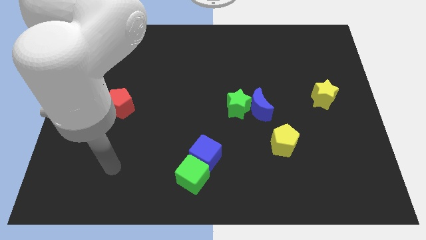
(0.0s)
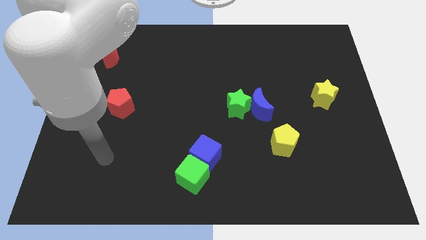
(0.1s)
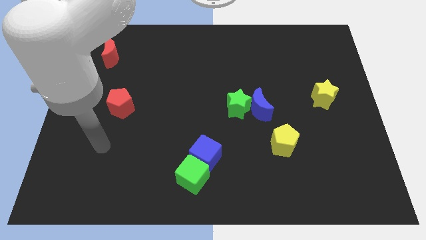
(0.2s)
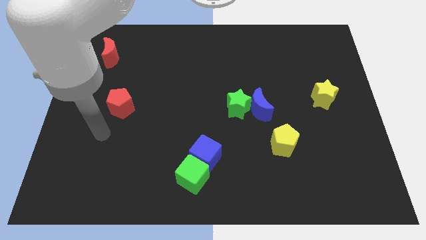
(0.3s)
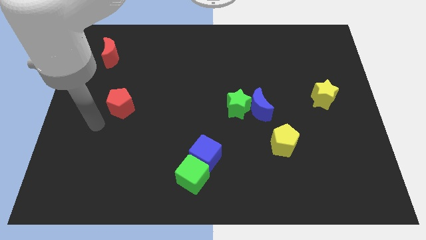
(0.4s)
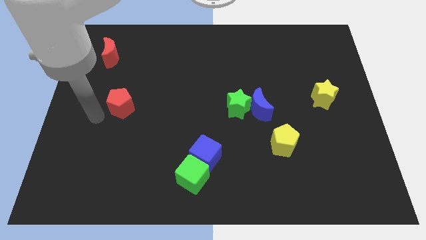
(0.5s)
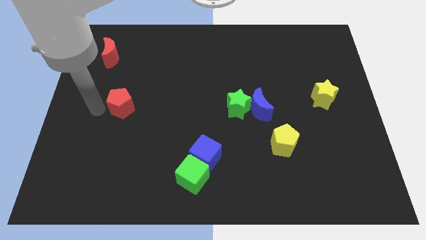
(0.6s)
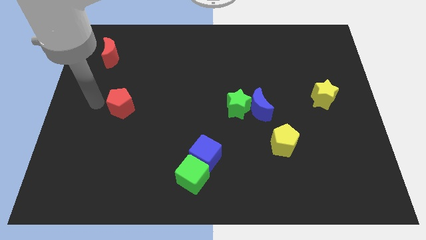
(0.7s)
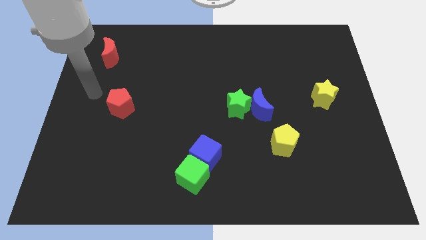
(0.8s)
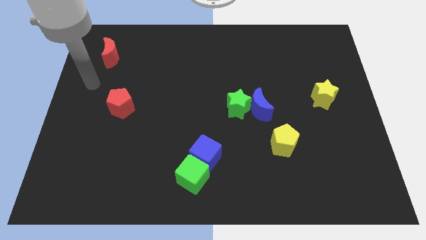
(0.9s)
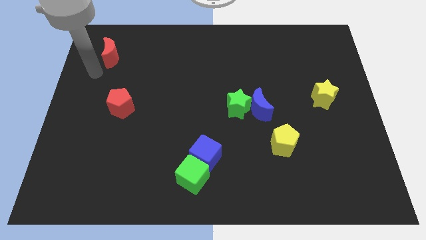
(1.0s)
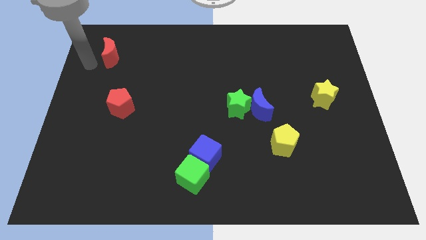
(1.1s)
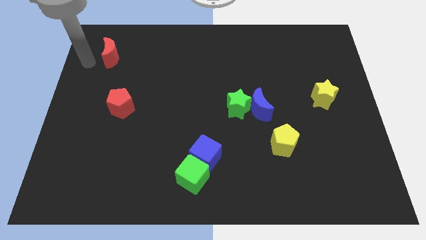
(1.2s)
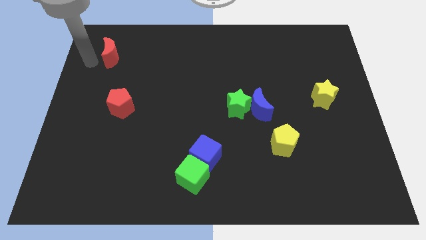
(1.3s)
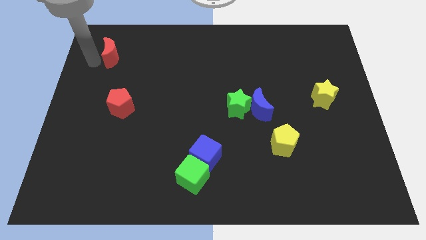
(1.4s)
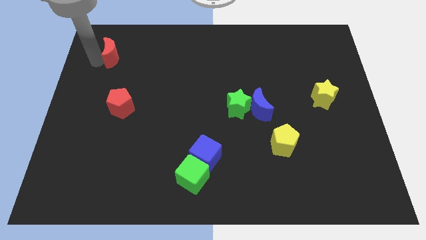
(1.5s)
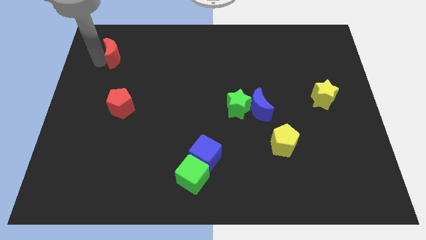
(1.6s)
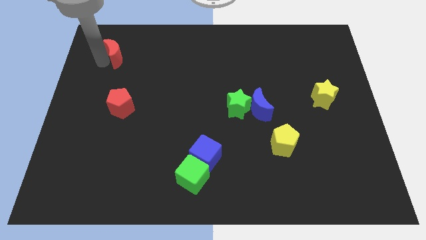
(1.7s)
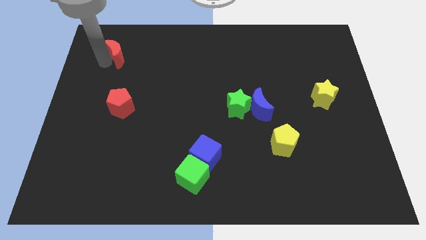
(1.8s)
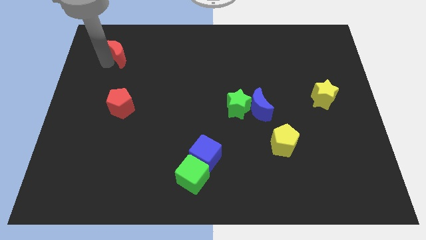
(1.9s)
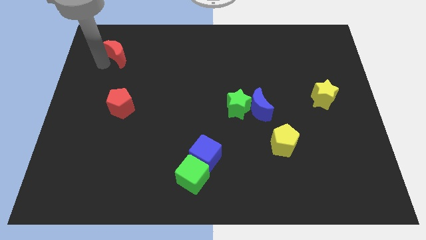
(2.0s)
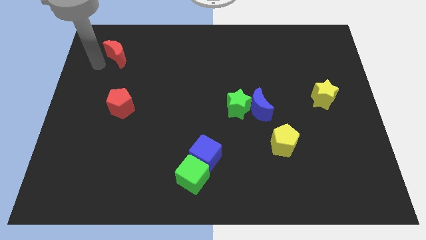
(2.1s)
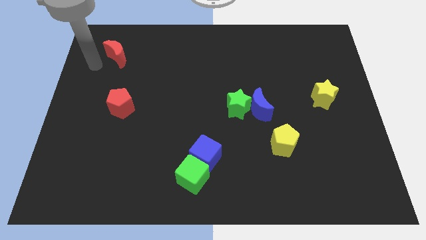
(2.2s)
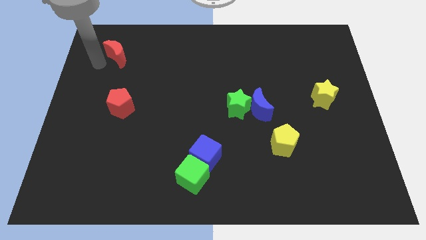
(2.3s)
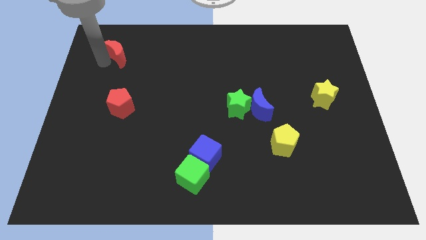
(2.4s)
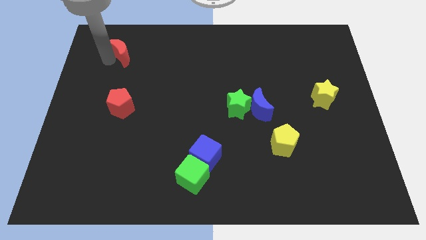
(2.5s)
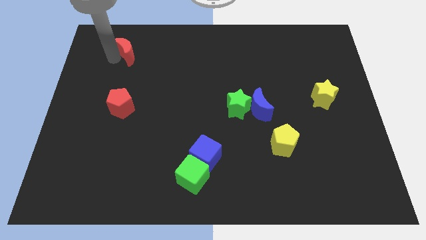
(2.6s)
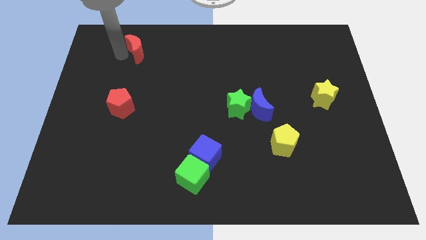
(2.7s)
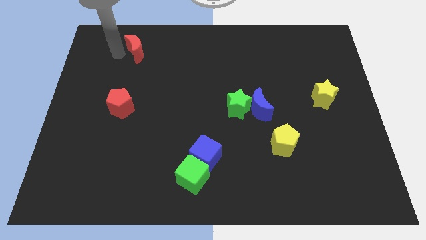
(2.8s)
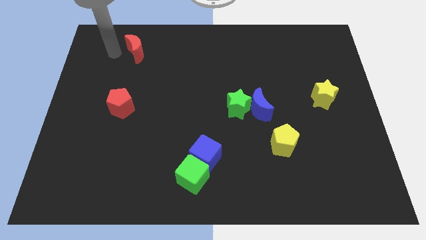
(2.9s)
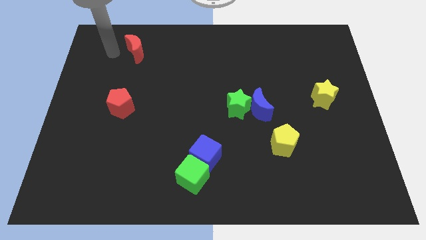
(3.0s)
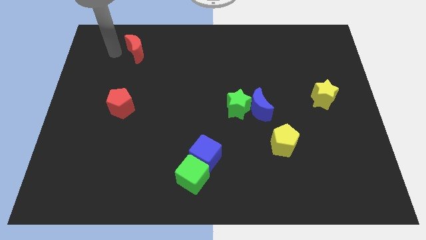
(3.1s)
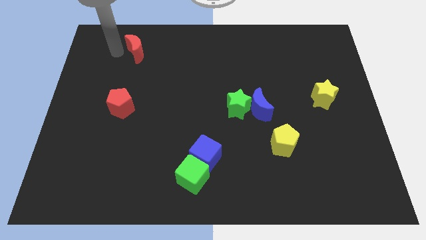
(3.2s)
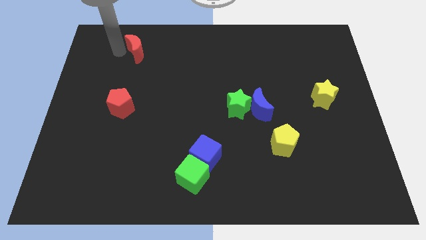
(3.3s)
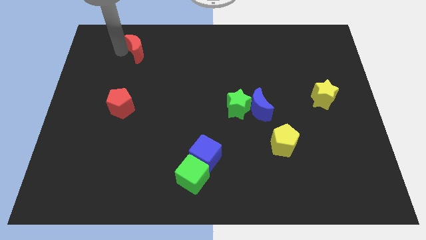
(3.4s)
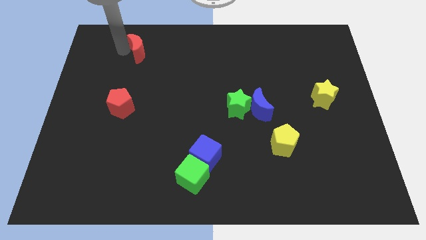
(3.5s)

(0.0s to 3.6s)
slightly push the red moon to the right

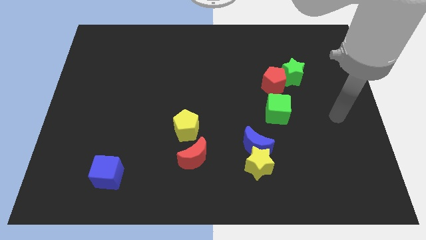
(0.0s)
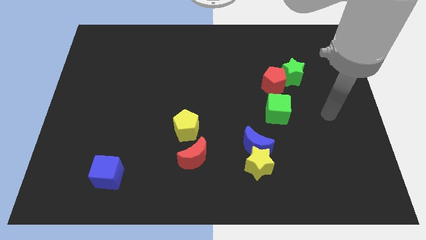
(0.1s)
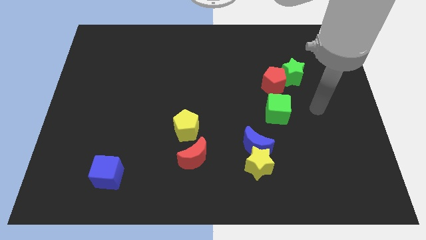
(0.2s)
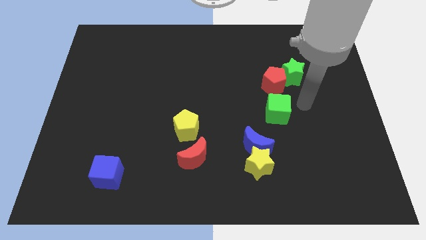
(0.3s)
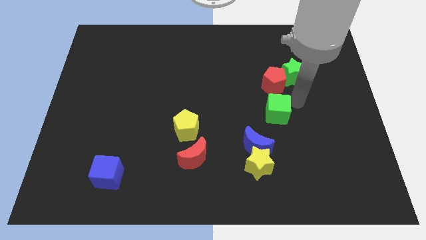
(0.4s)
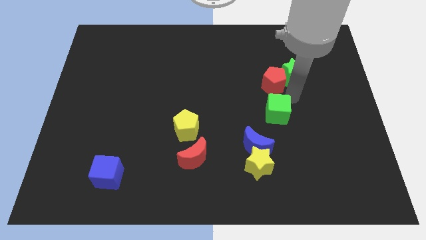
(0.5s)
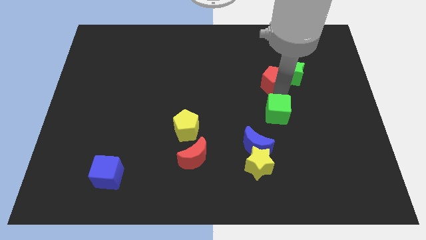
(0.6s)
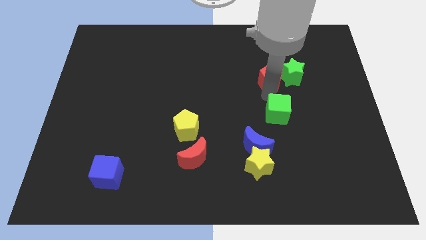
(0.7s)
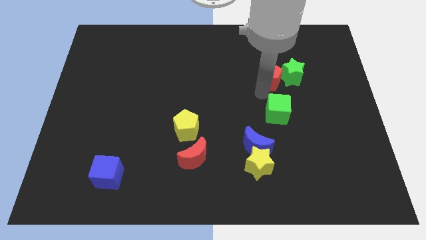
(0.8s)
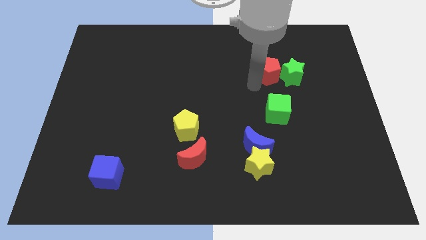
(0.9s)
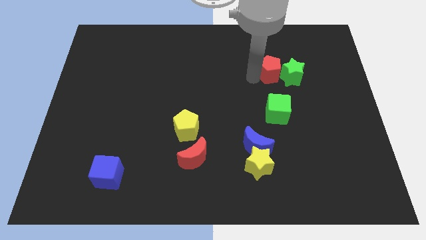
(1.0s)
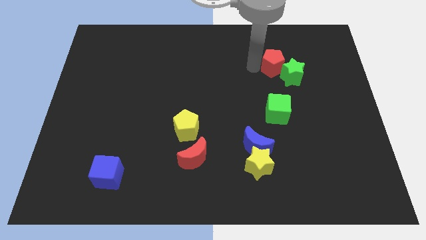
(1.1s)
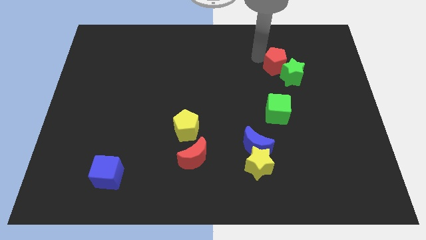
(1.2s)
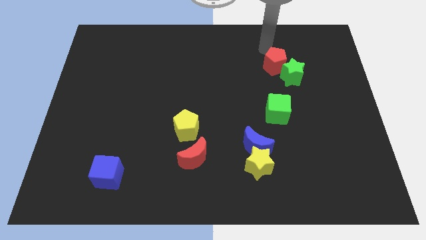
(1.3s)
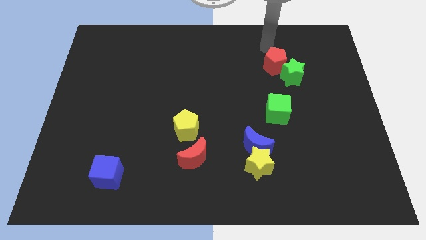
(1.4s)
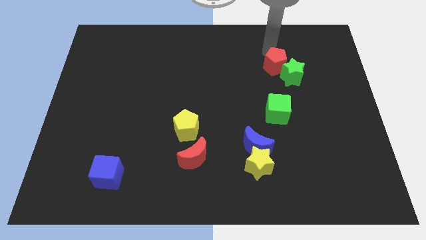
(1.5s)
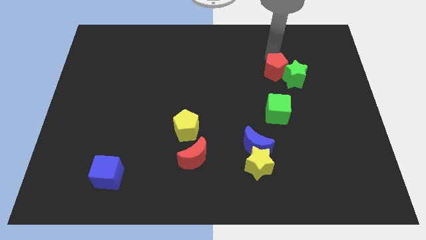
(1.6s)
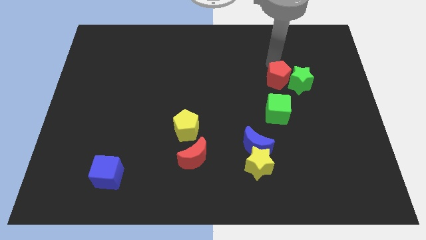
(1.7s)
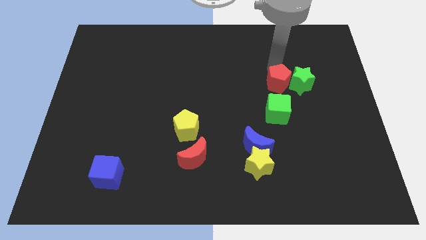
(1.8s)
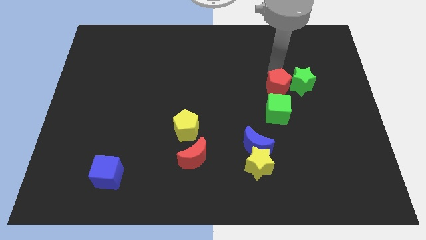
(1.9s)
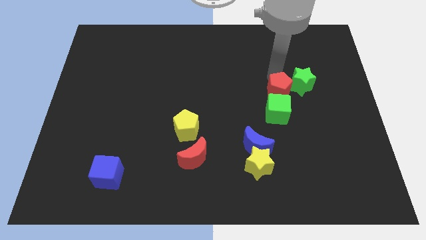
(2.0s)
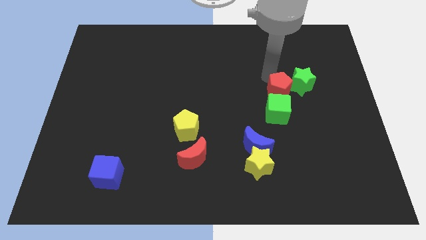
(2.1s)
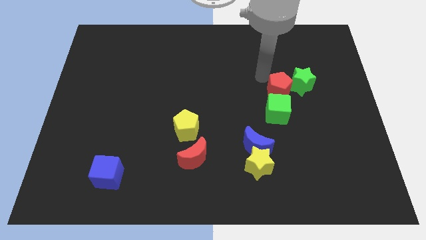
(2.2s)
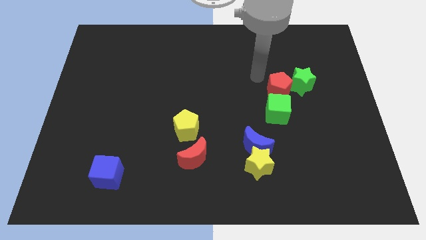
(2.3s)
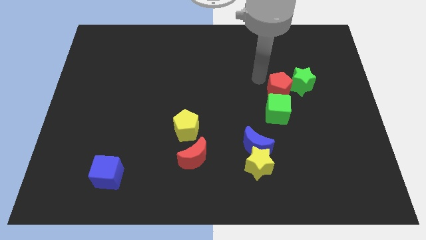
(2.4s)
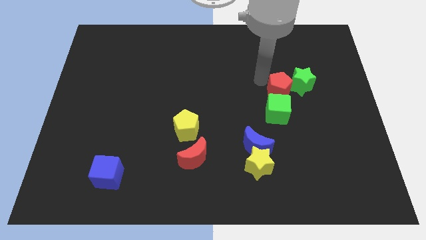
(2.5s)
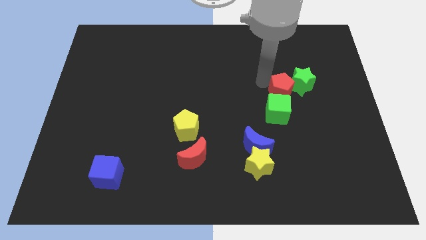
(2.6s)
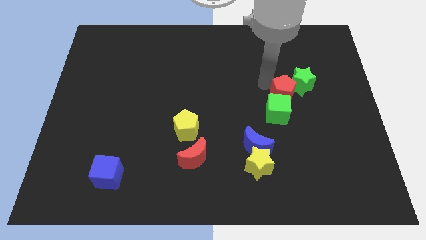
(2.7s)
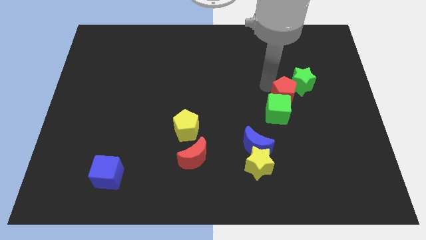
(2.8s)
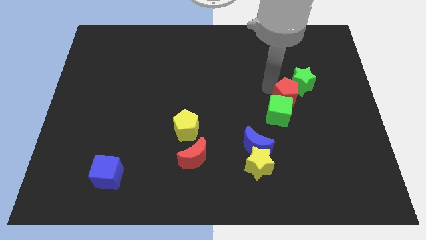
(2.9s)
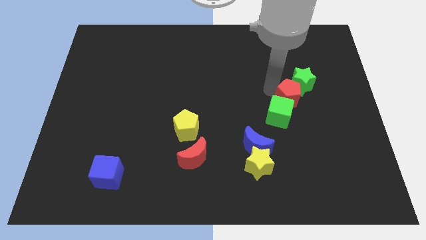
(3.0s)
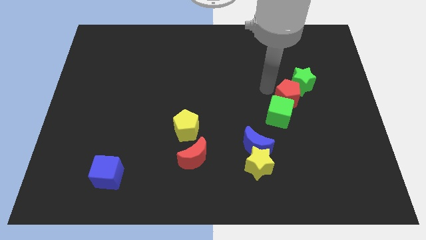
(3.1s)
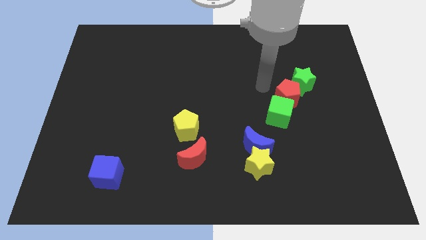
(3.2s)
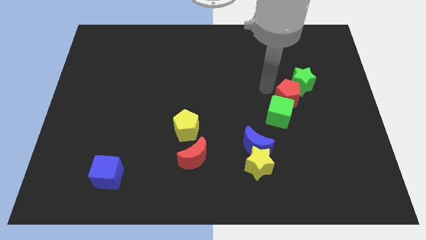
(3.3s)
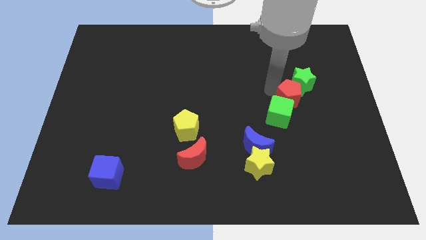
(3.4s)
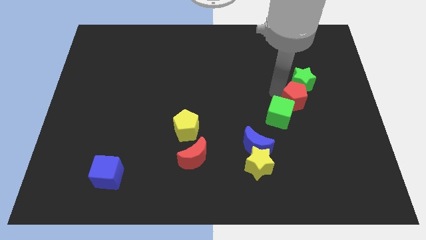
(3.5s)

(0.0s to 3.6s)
move the red pentagon a bit down and right

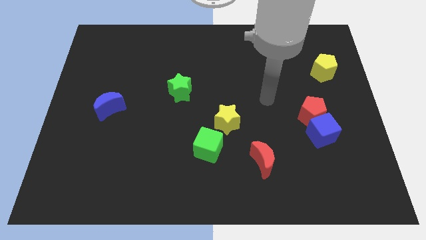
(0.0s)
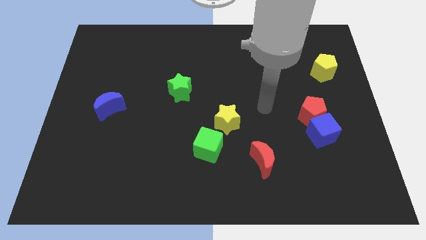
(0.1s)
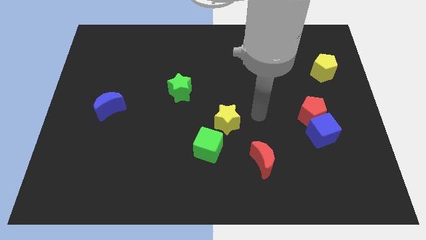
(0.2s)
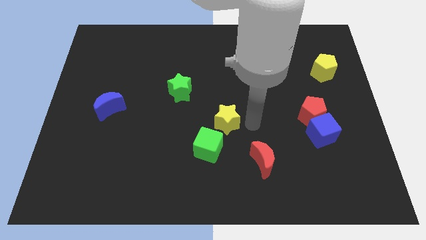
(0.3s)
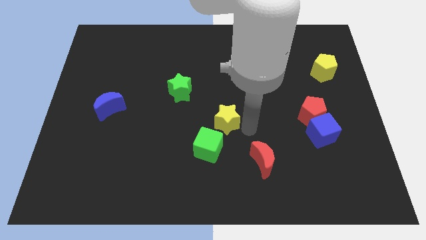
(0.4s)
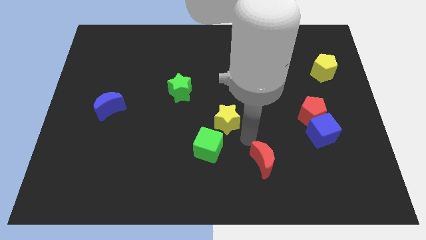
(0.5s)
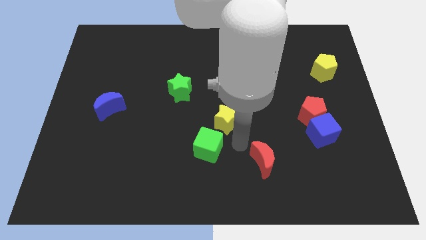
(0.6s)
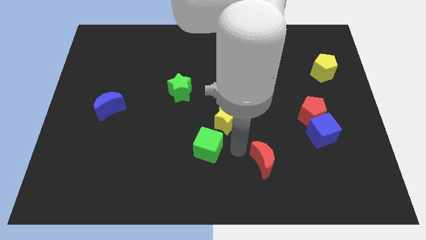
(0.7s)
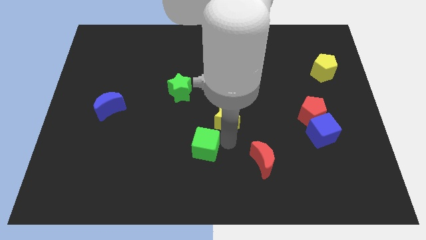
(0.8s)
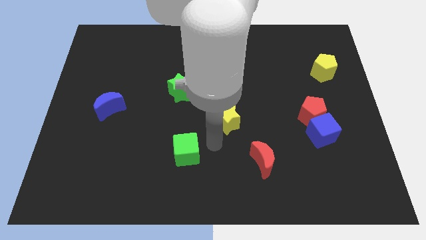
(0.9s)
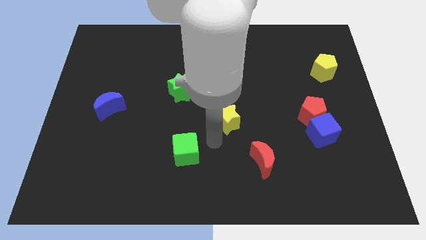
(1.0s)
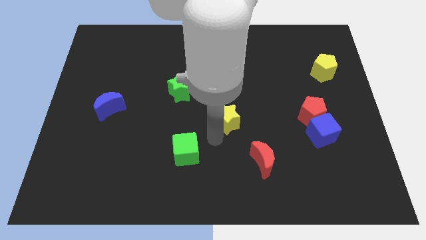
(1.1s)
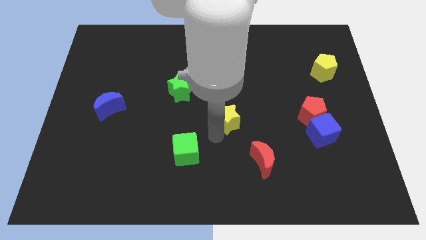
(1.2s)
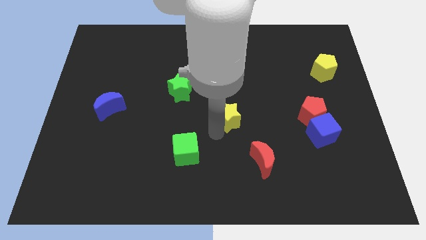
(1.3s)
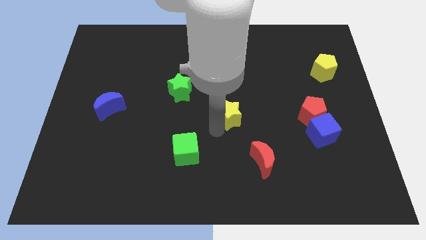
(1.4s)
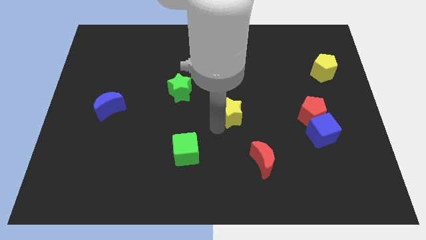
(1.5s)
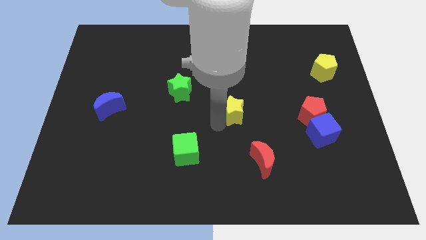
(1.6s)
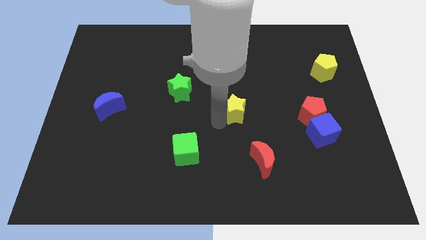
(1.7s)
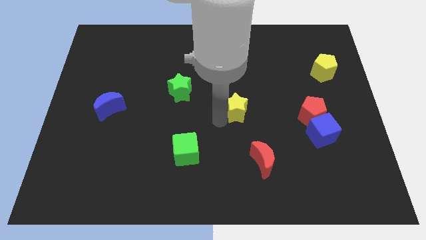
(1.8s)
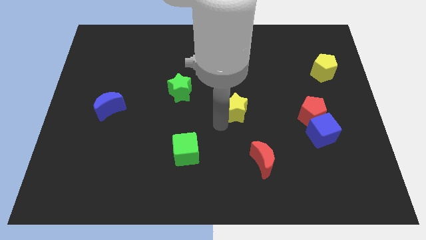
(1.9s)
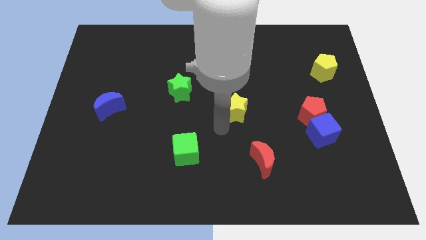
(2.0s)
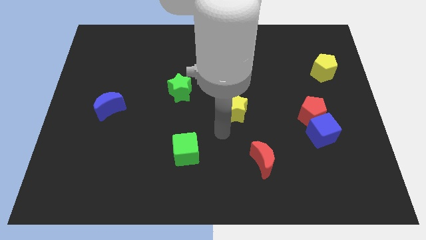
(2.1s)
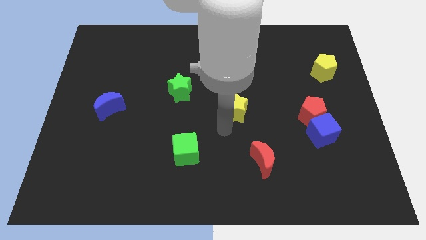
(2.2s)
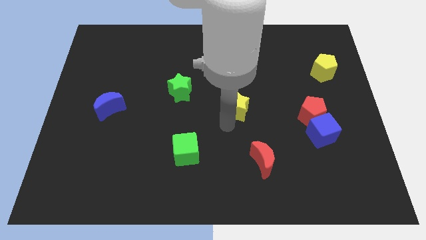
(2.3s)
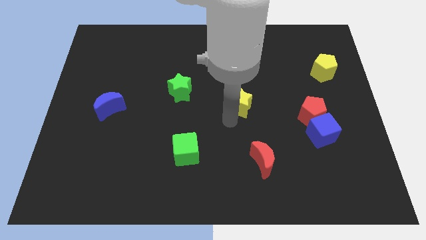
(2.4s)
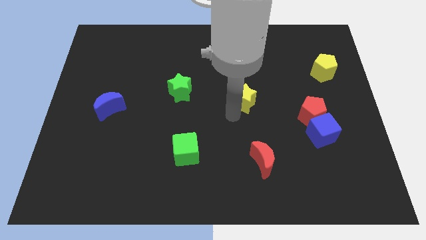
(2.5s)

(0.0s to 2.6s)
push the yellow star a bit diagonally up and to the right
